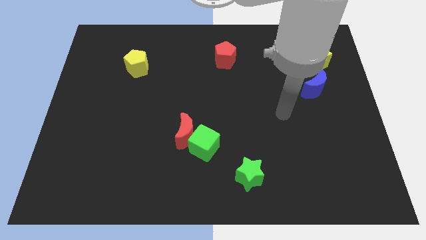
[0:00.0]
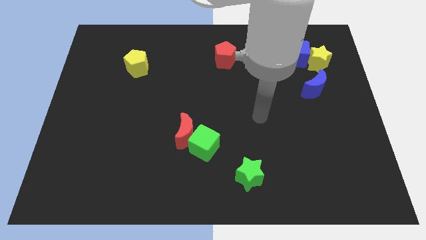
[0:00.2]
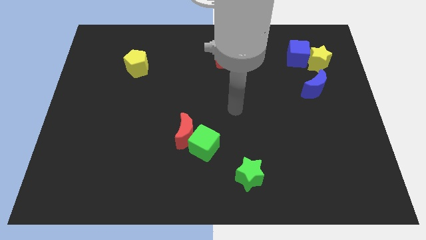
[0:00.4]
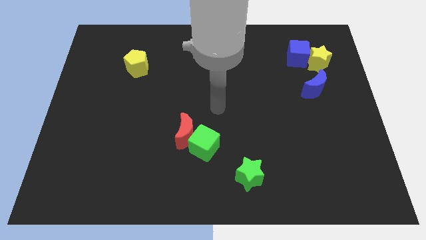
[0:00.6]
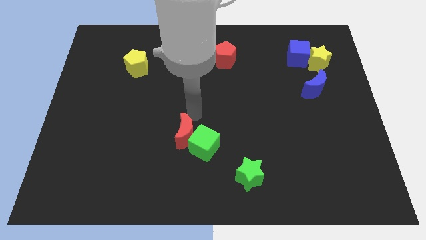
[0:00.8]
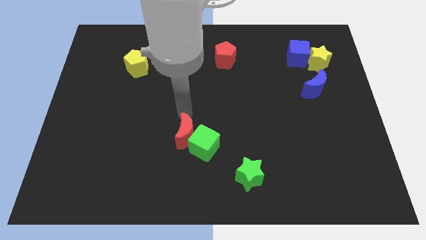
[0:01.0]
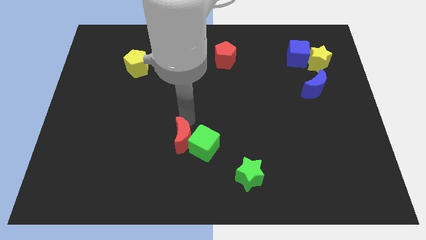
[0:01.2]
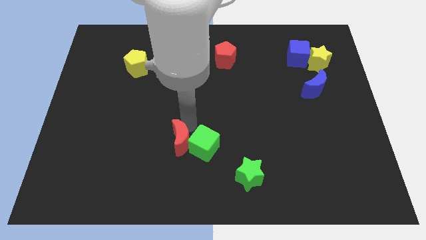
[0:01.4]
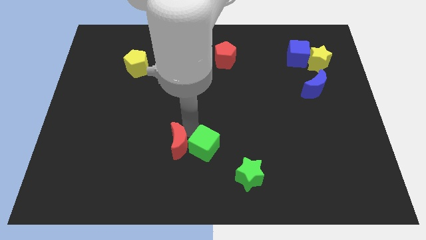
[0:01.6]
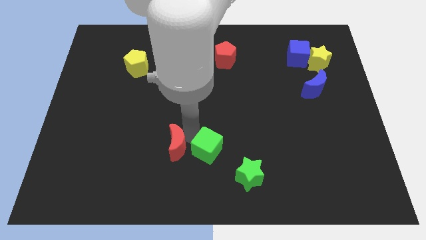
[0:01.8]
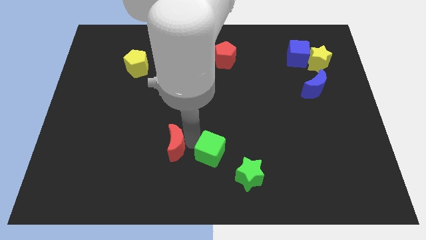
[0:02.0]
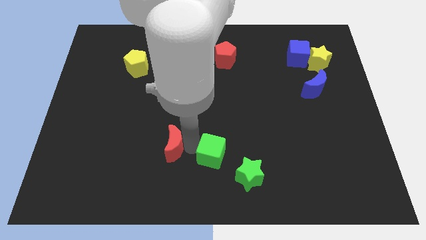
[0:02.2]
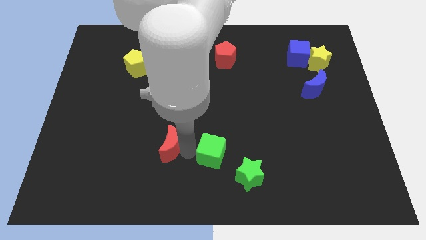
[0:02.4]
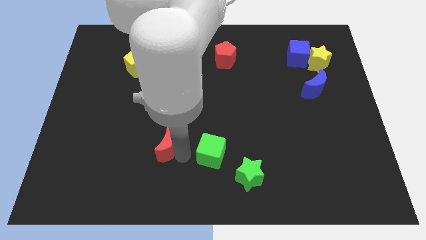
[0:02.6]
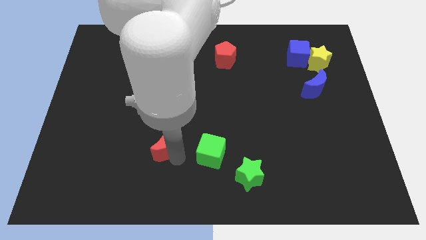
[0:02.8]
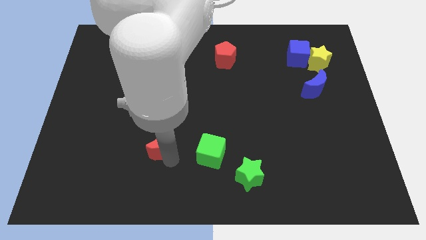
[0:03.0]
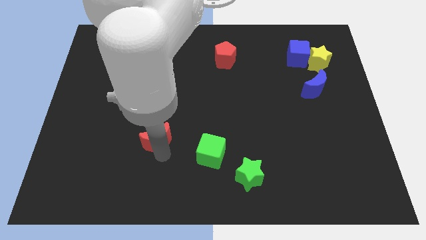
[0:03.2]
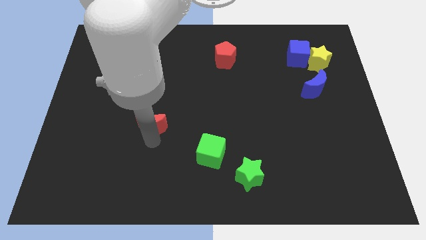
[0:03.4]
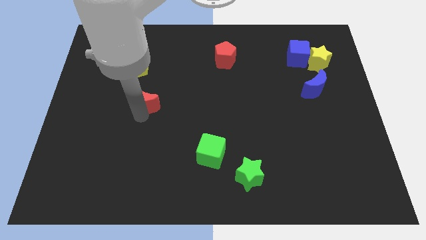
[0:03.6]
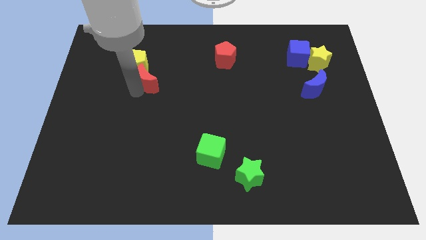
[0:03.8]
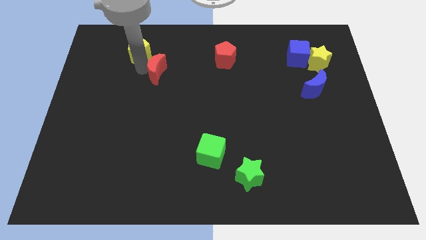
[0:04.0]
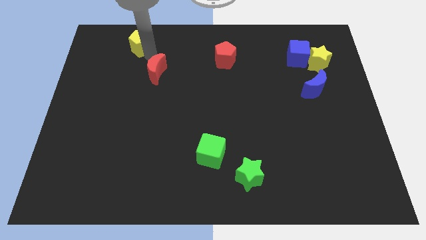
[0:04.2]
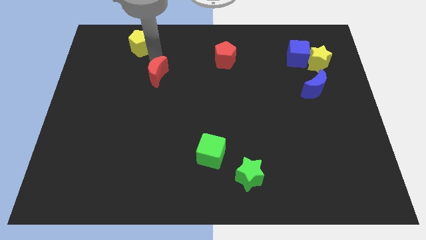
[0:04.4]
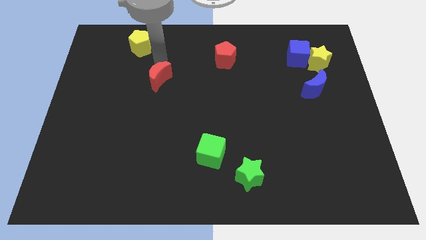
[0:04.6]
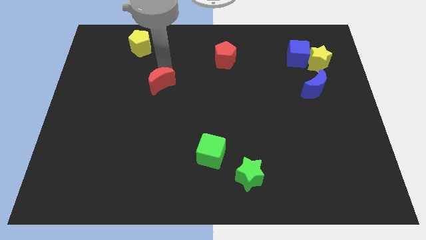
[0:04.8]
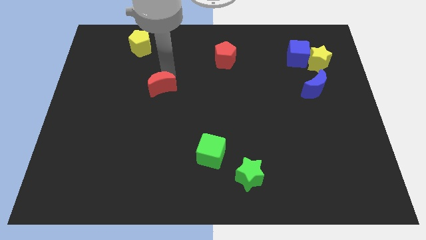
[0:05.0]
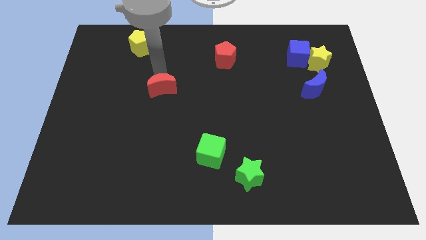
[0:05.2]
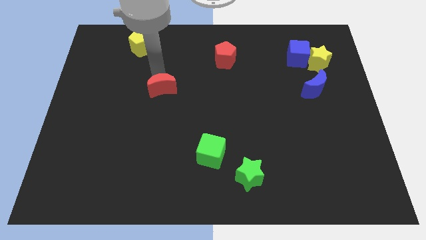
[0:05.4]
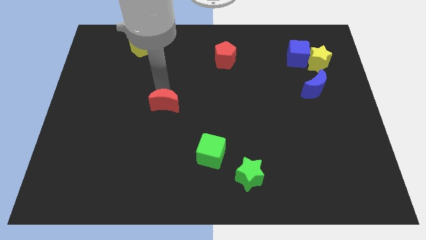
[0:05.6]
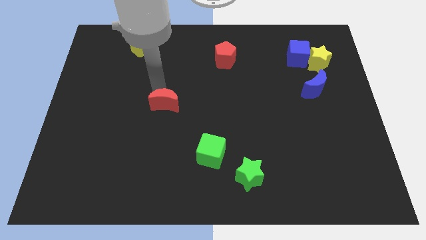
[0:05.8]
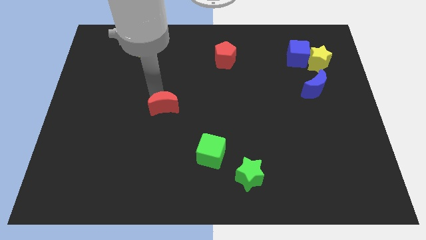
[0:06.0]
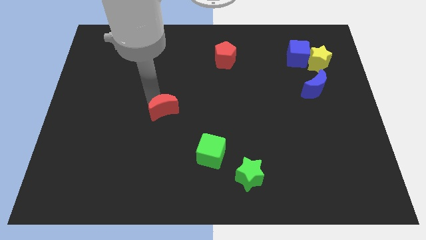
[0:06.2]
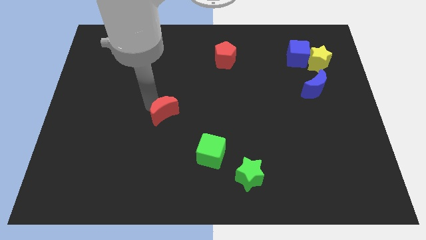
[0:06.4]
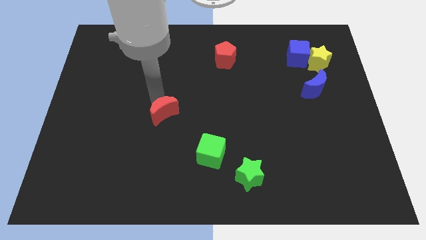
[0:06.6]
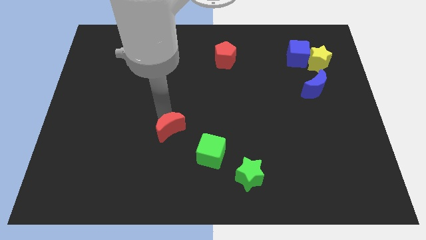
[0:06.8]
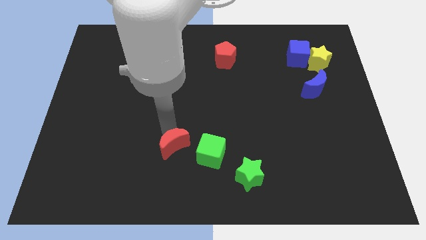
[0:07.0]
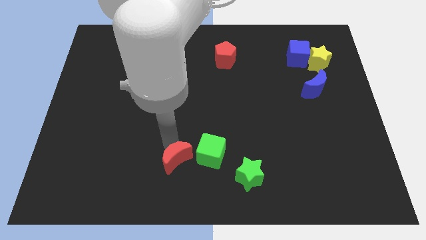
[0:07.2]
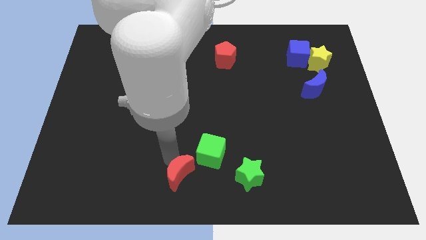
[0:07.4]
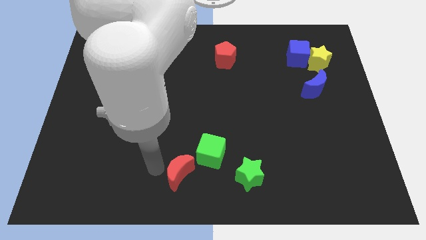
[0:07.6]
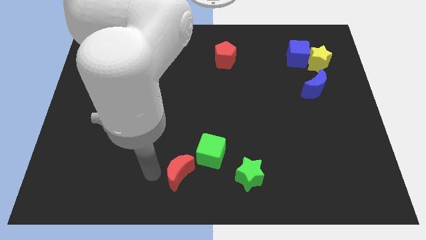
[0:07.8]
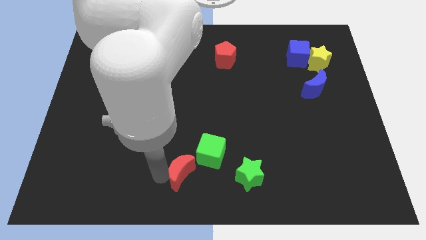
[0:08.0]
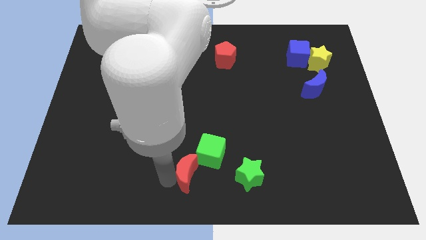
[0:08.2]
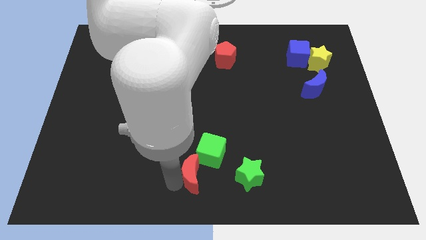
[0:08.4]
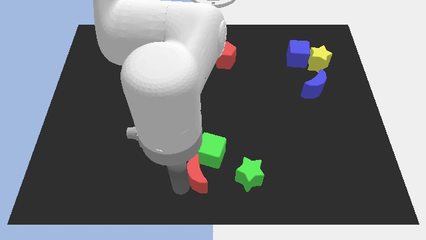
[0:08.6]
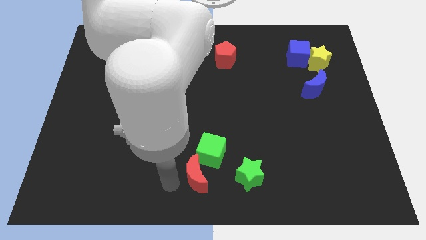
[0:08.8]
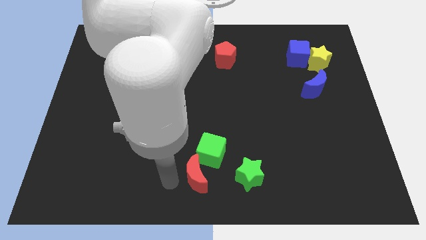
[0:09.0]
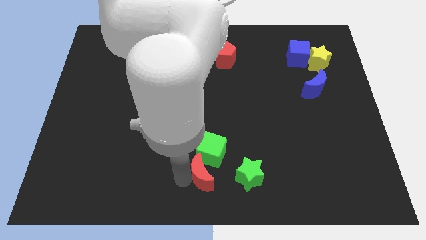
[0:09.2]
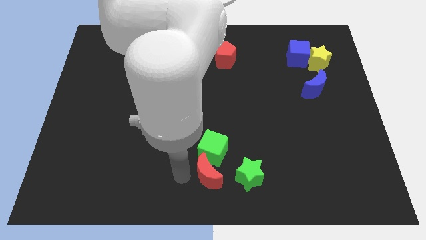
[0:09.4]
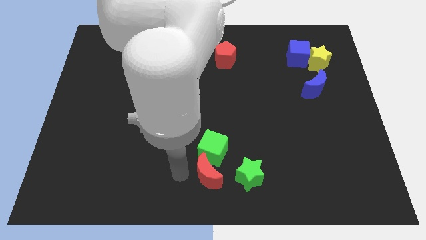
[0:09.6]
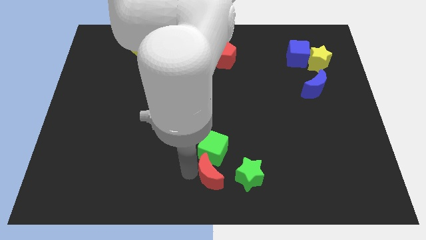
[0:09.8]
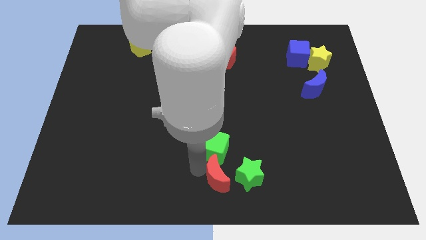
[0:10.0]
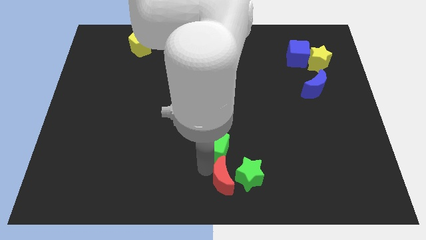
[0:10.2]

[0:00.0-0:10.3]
slide the red moon next to the green star

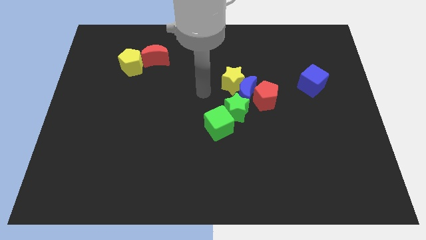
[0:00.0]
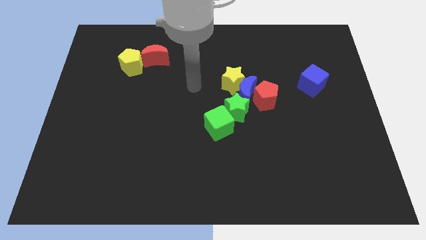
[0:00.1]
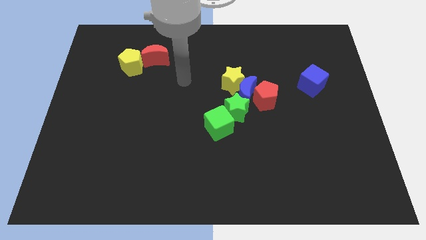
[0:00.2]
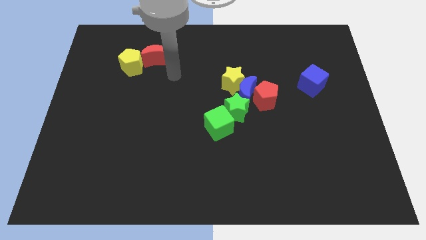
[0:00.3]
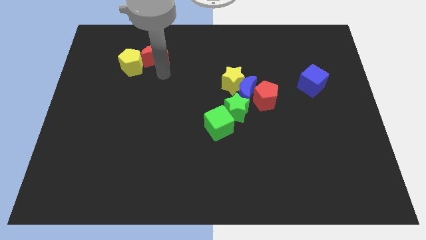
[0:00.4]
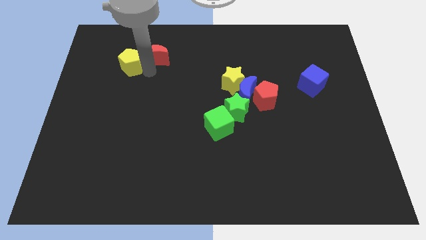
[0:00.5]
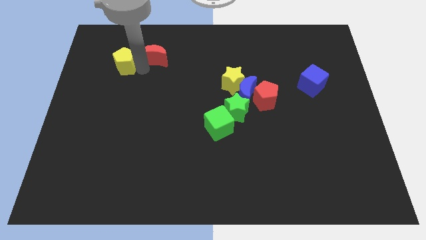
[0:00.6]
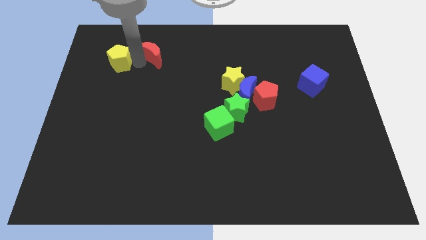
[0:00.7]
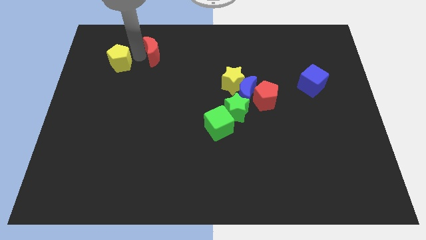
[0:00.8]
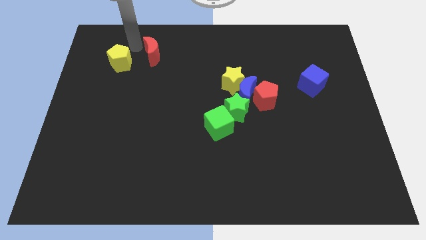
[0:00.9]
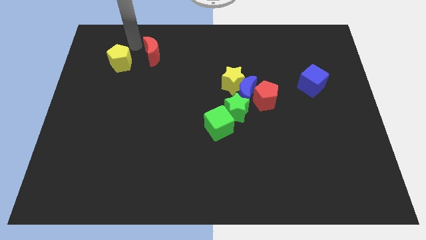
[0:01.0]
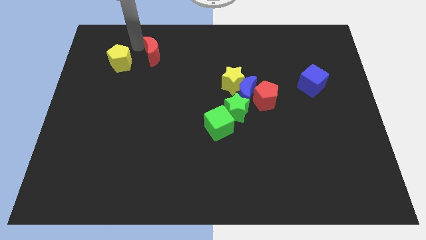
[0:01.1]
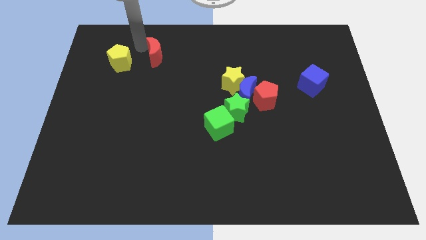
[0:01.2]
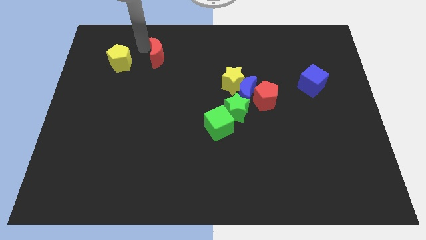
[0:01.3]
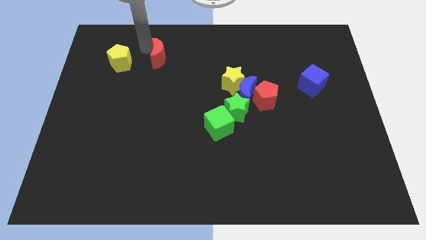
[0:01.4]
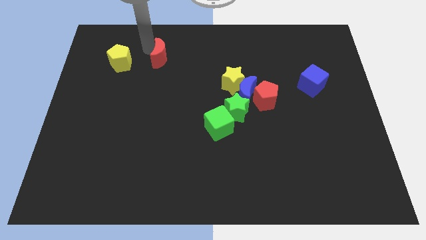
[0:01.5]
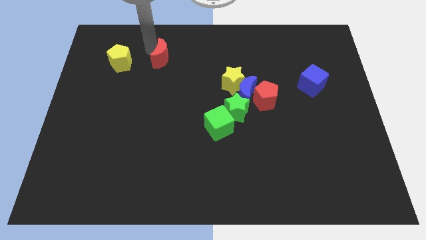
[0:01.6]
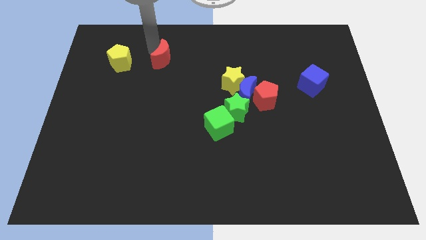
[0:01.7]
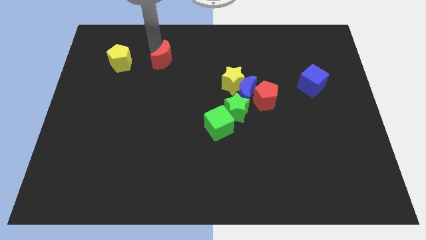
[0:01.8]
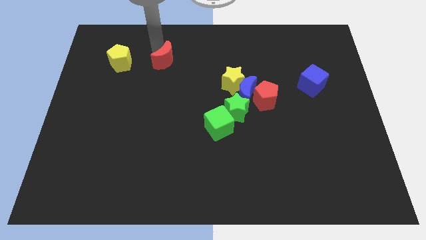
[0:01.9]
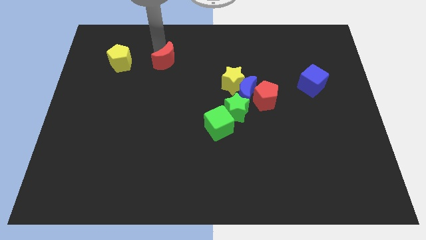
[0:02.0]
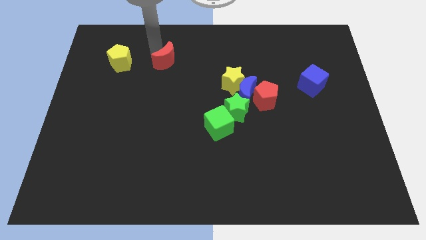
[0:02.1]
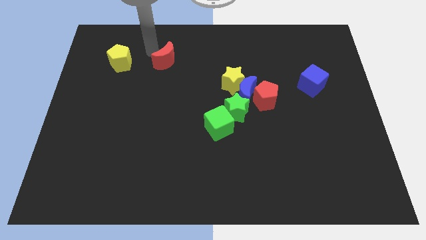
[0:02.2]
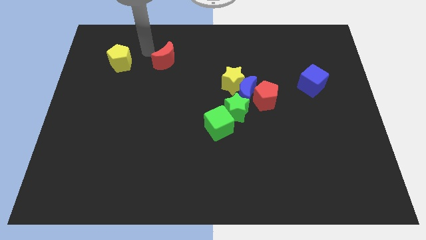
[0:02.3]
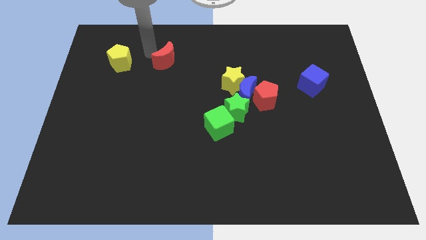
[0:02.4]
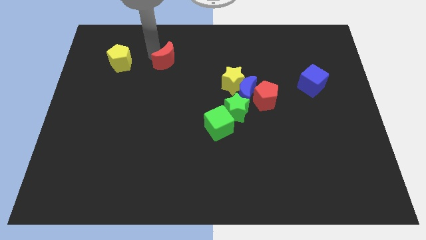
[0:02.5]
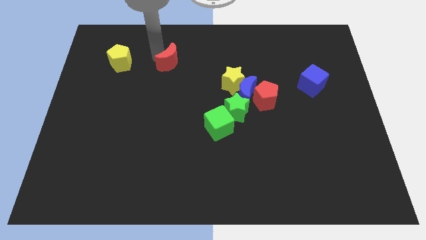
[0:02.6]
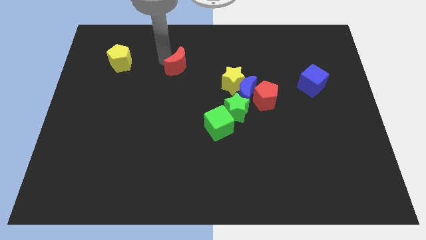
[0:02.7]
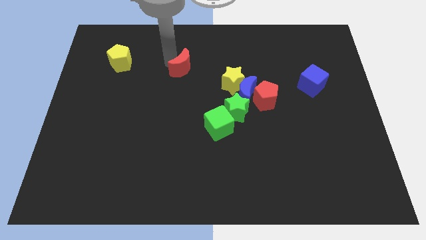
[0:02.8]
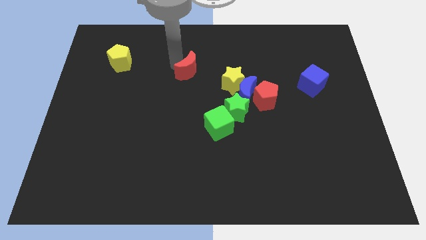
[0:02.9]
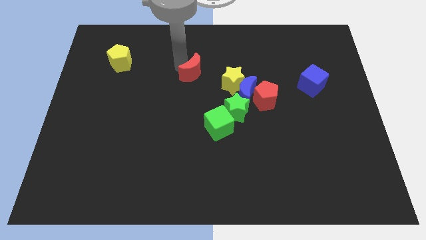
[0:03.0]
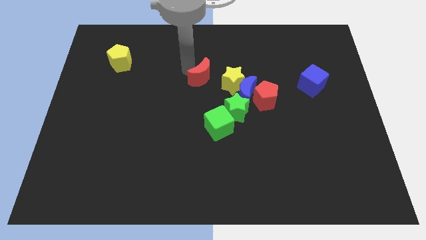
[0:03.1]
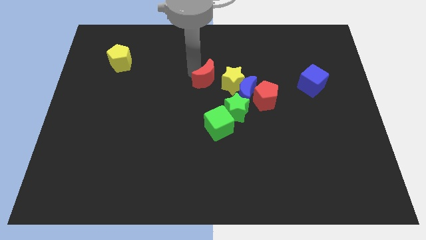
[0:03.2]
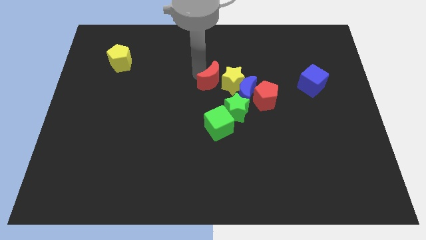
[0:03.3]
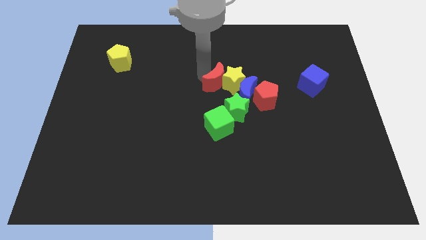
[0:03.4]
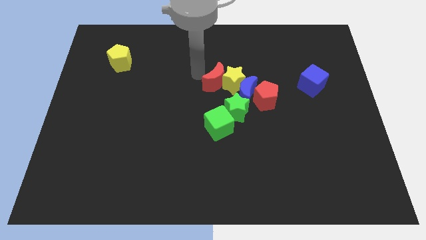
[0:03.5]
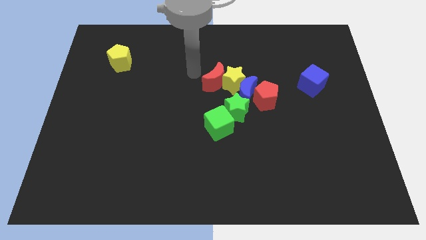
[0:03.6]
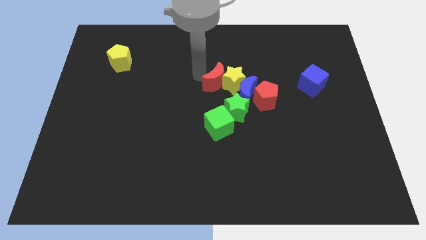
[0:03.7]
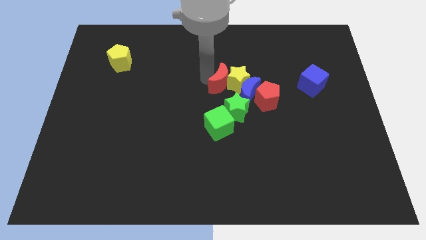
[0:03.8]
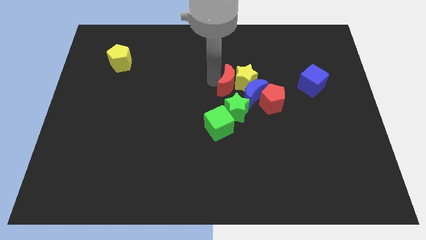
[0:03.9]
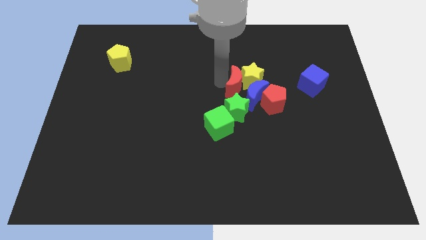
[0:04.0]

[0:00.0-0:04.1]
push the red moon to the blue moon
